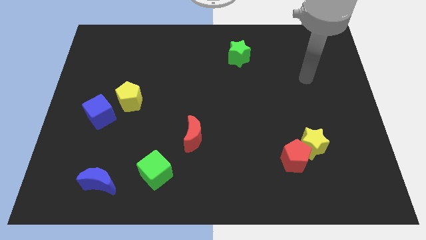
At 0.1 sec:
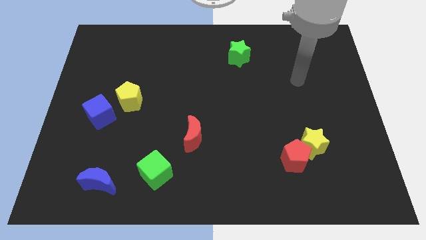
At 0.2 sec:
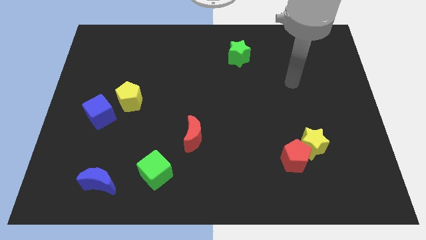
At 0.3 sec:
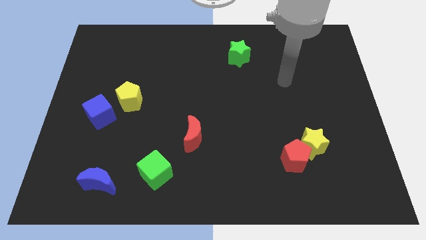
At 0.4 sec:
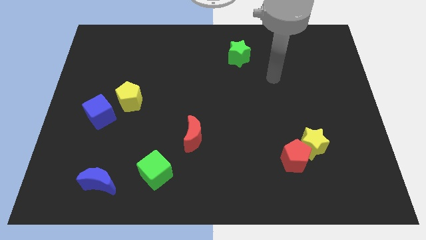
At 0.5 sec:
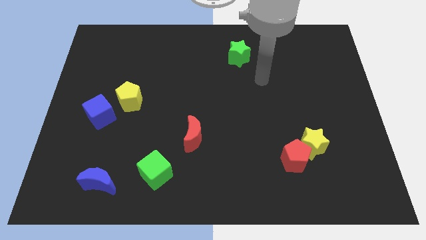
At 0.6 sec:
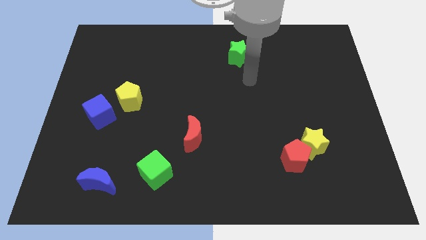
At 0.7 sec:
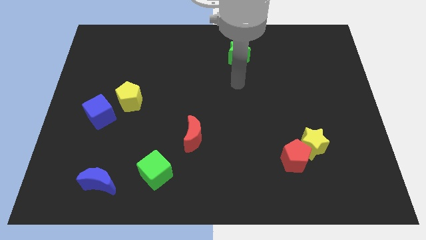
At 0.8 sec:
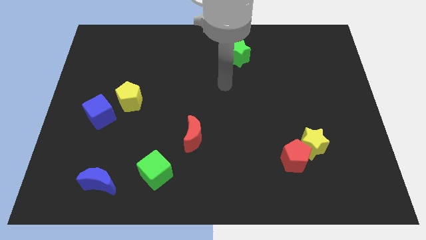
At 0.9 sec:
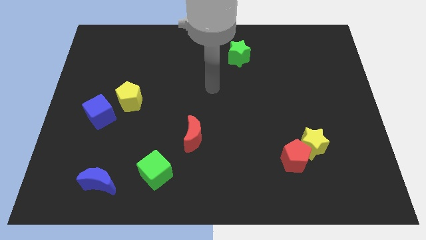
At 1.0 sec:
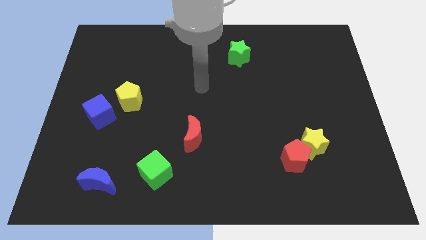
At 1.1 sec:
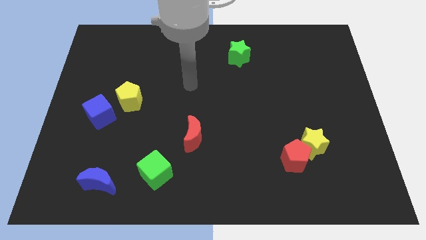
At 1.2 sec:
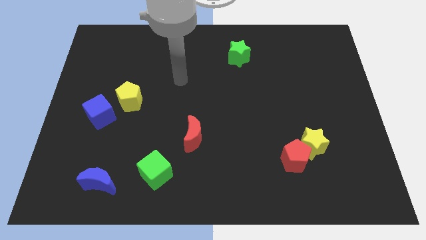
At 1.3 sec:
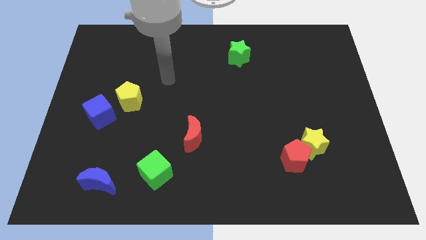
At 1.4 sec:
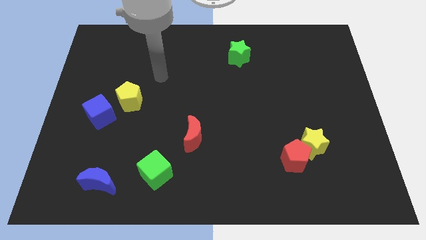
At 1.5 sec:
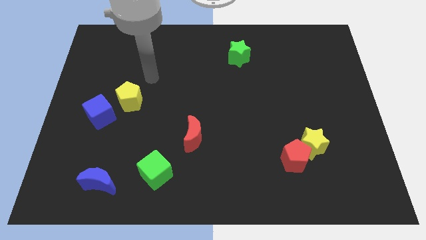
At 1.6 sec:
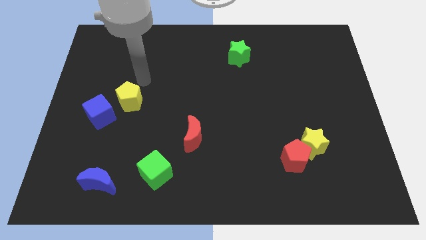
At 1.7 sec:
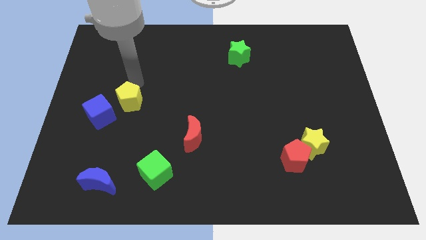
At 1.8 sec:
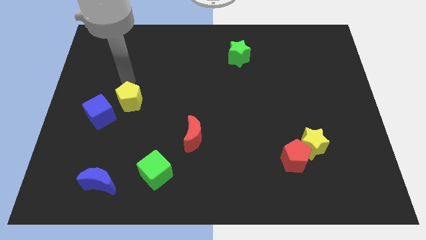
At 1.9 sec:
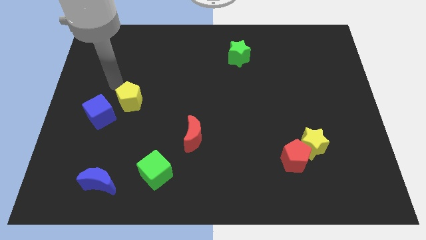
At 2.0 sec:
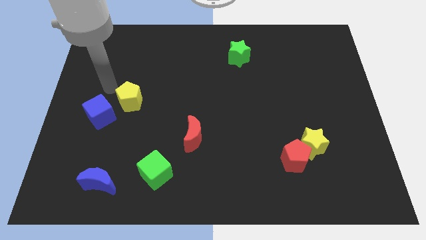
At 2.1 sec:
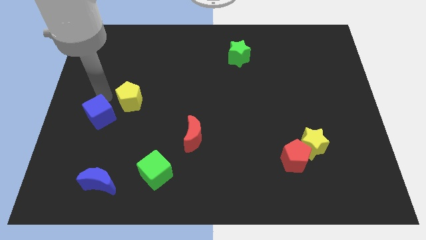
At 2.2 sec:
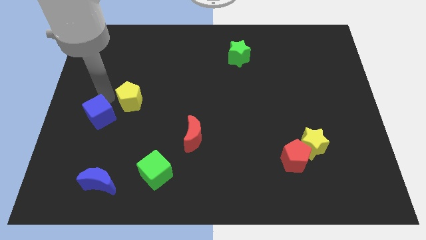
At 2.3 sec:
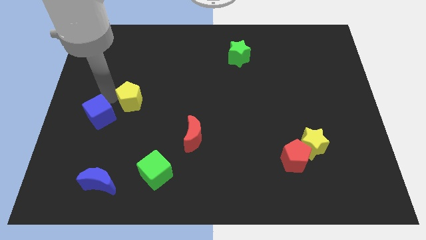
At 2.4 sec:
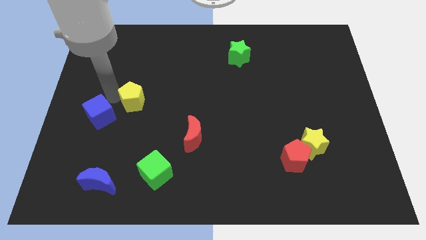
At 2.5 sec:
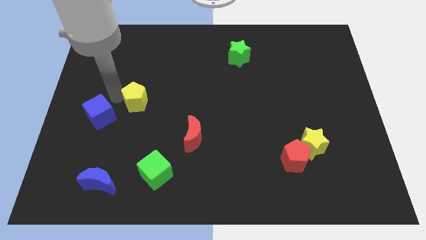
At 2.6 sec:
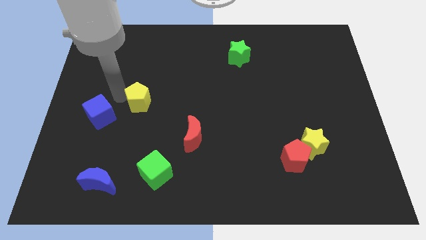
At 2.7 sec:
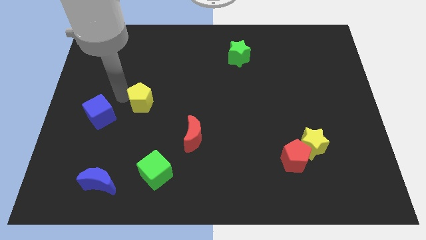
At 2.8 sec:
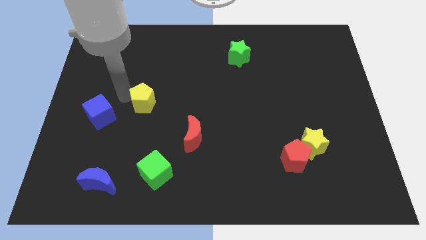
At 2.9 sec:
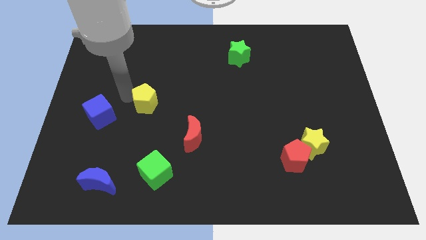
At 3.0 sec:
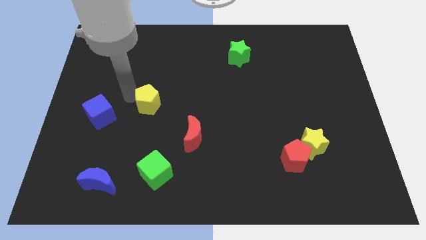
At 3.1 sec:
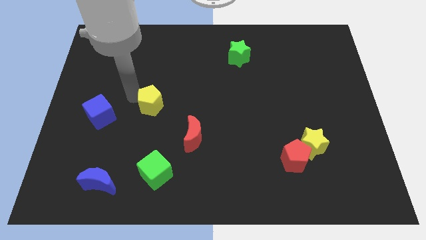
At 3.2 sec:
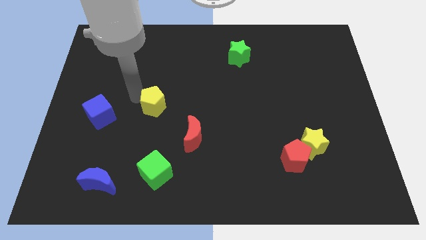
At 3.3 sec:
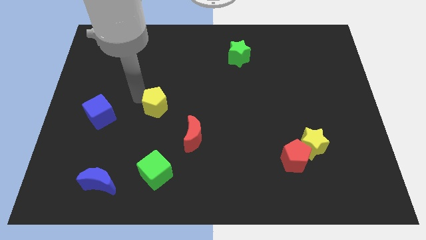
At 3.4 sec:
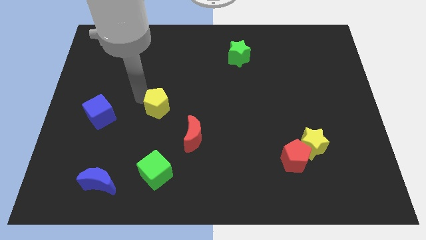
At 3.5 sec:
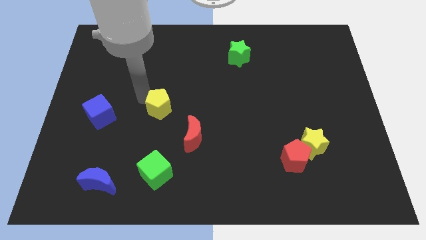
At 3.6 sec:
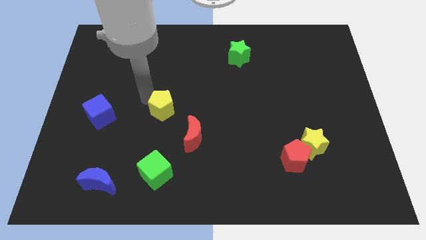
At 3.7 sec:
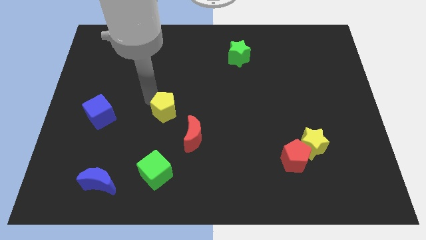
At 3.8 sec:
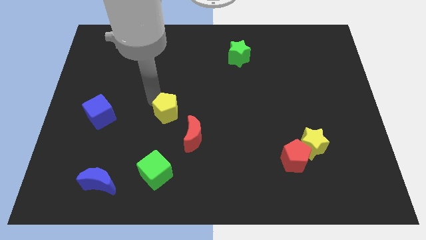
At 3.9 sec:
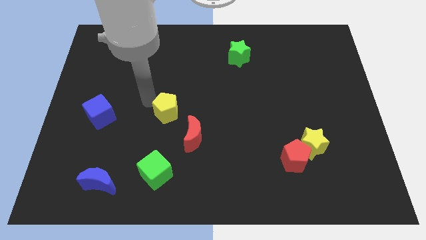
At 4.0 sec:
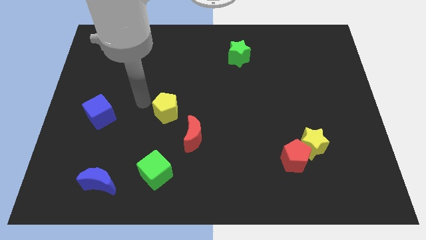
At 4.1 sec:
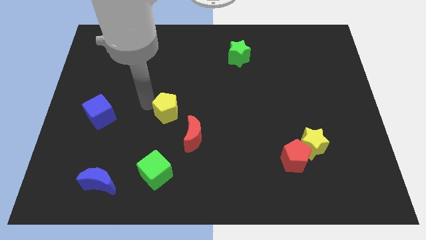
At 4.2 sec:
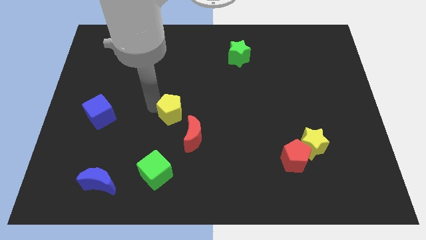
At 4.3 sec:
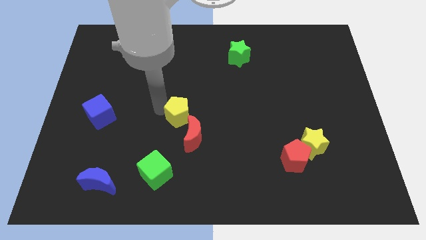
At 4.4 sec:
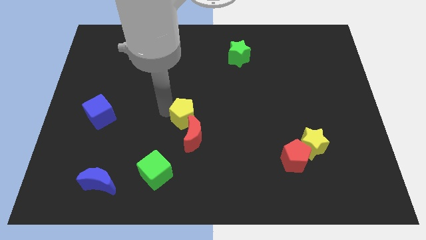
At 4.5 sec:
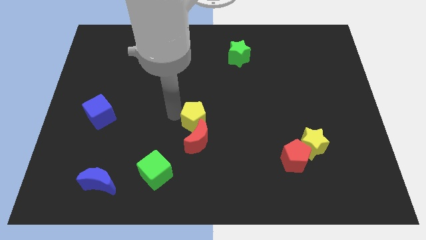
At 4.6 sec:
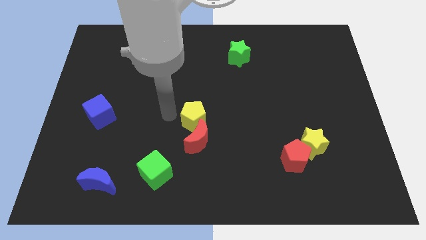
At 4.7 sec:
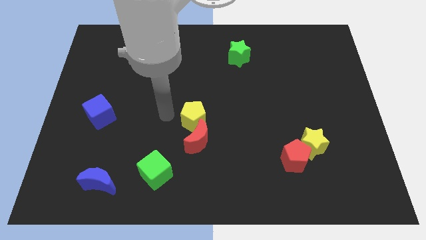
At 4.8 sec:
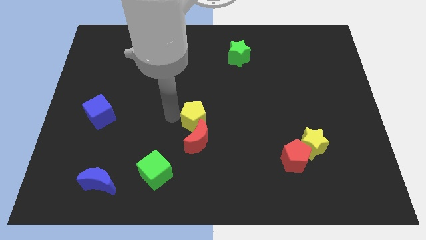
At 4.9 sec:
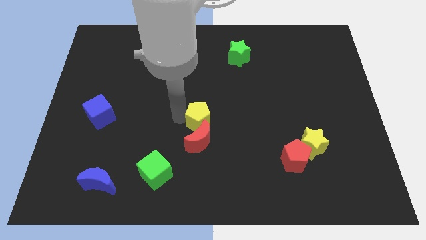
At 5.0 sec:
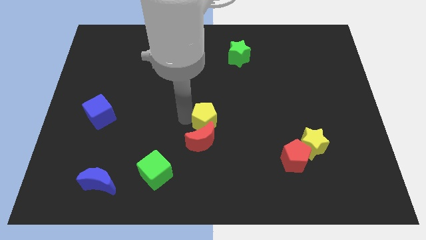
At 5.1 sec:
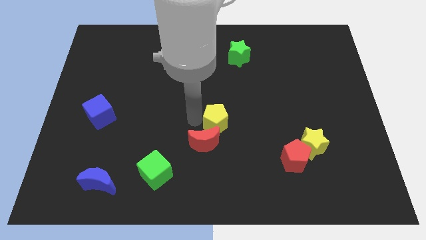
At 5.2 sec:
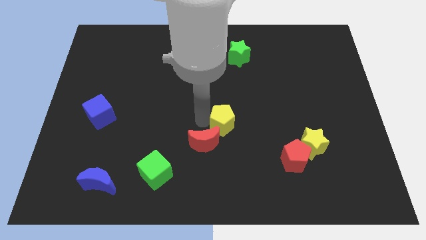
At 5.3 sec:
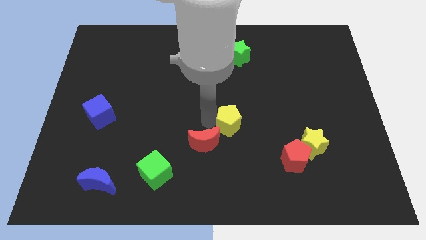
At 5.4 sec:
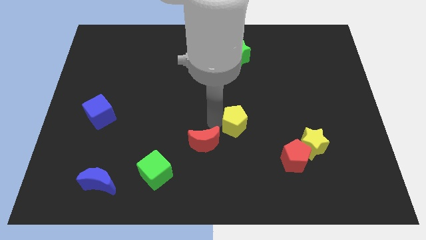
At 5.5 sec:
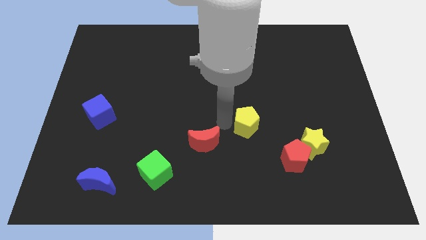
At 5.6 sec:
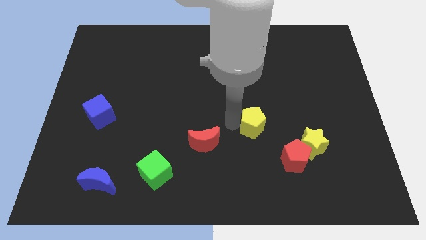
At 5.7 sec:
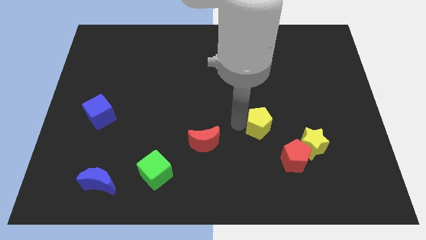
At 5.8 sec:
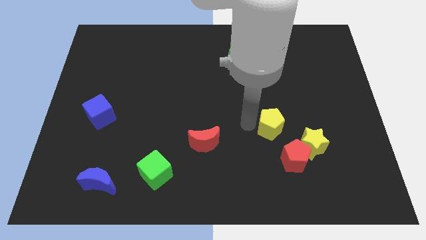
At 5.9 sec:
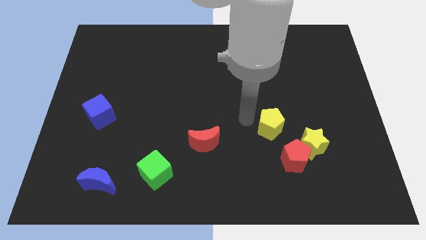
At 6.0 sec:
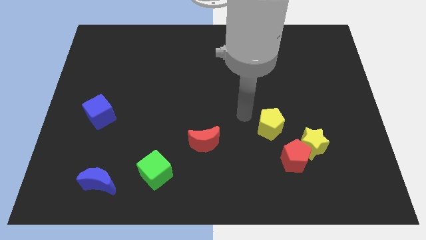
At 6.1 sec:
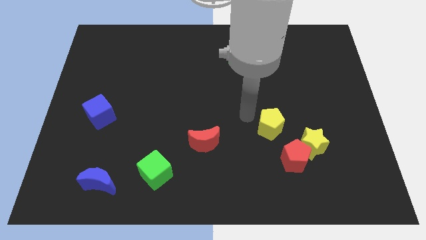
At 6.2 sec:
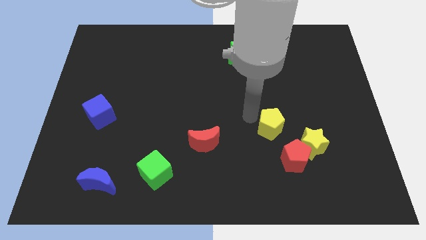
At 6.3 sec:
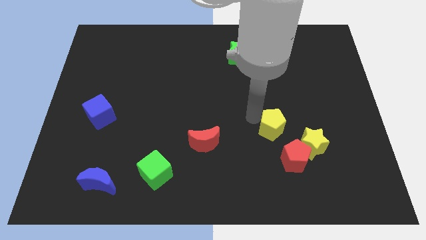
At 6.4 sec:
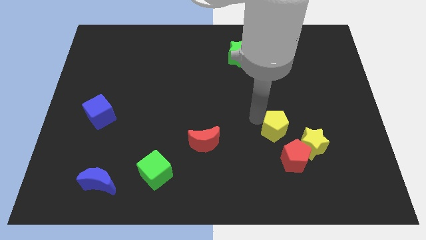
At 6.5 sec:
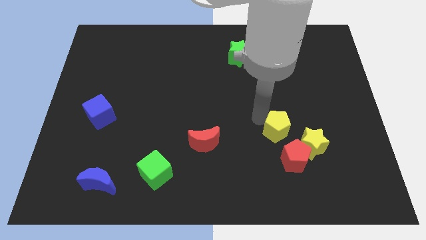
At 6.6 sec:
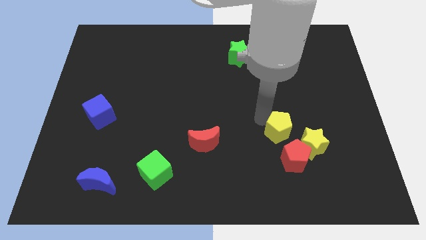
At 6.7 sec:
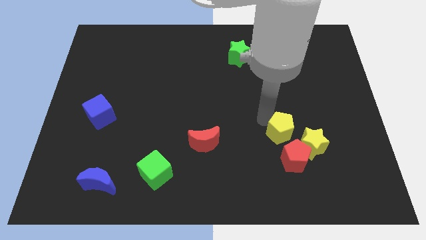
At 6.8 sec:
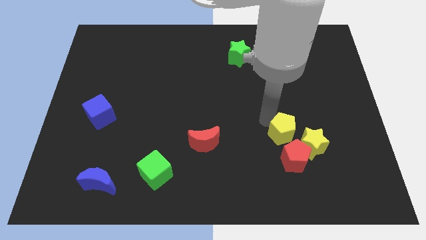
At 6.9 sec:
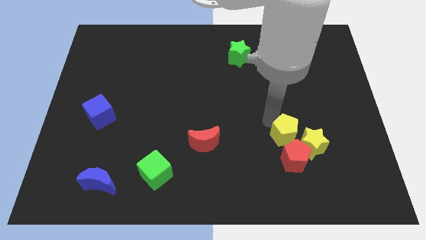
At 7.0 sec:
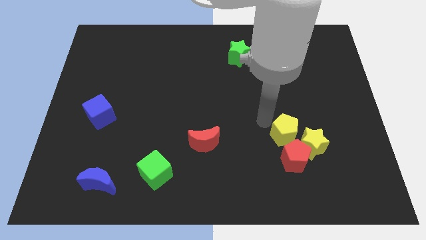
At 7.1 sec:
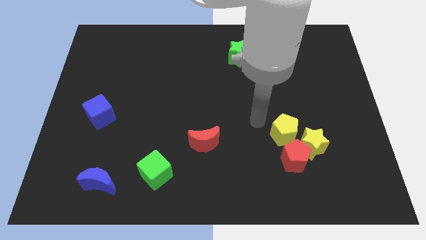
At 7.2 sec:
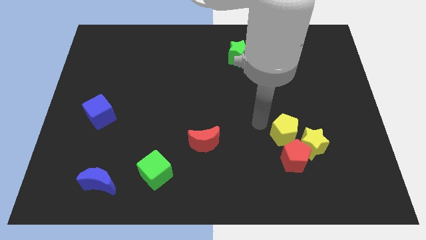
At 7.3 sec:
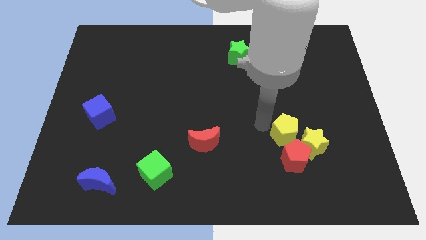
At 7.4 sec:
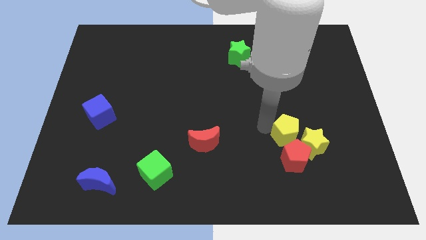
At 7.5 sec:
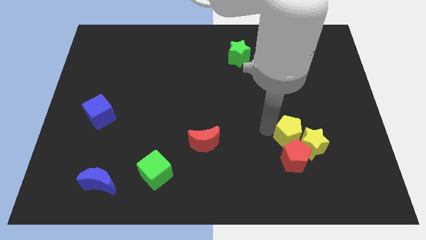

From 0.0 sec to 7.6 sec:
put the yellow pentagon towards the yellow star
